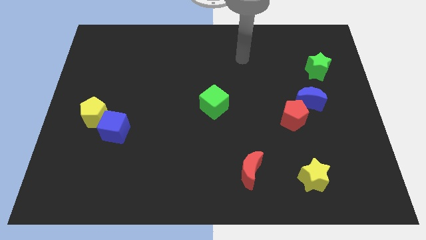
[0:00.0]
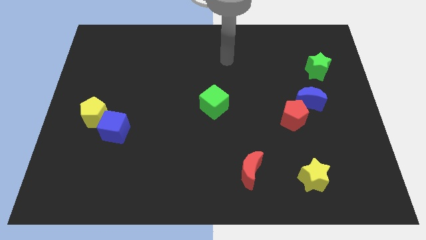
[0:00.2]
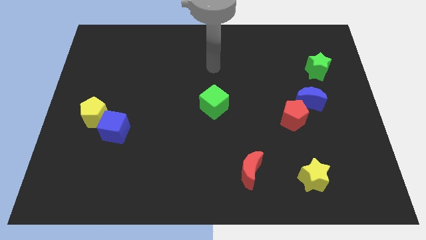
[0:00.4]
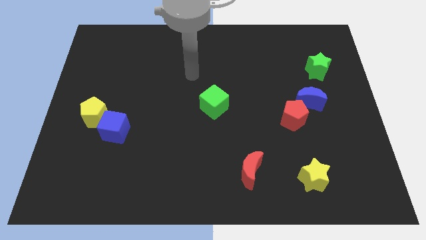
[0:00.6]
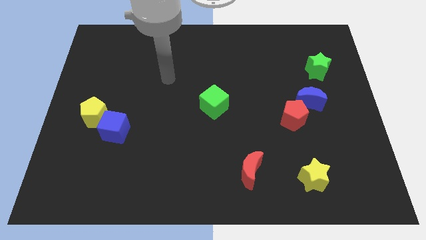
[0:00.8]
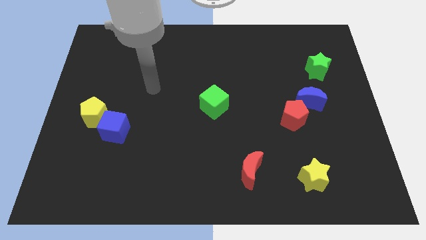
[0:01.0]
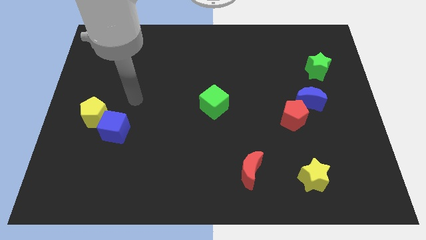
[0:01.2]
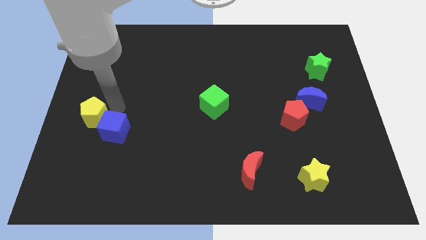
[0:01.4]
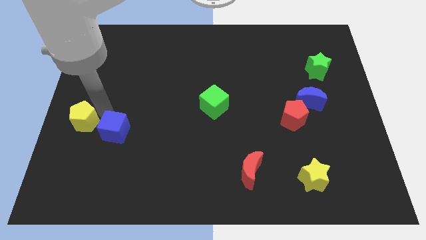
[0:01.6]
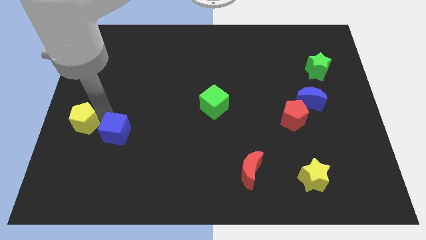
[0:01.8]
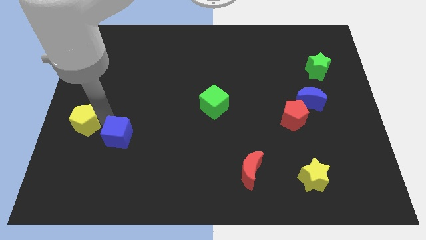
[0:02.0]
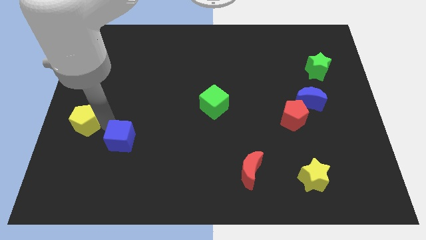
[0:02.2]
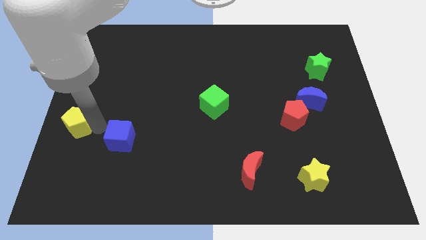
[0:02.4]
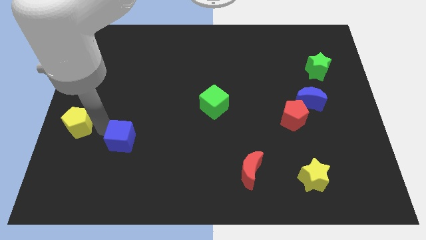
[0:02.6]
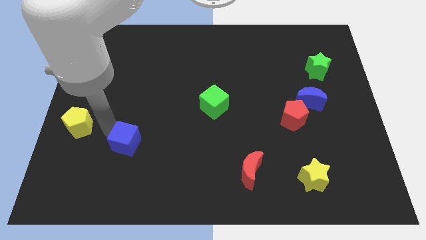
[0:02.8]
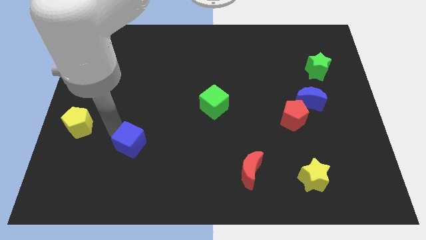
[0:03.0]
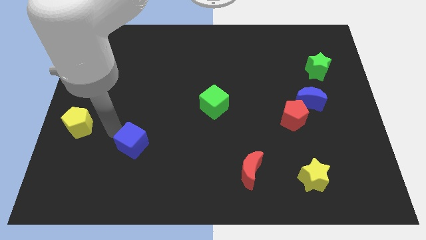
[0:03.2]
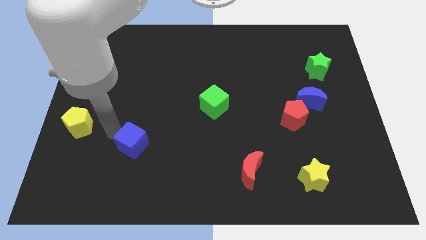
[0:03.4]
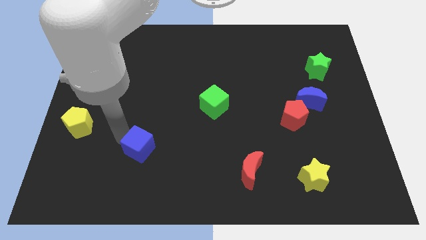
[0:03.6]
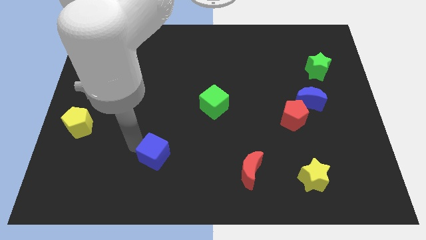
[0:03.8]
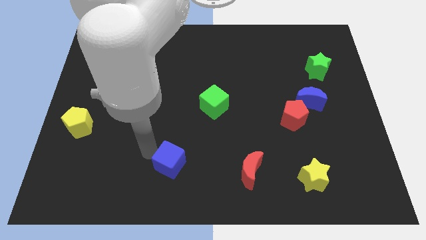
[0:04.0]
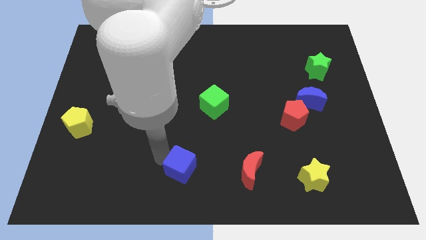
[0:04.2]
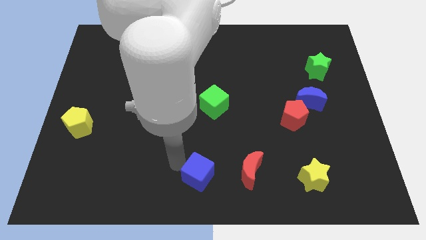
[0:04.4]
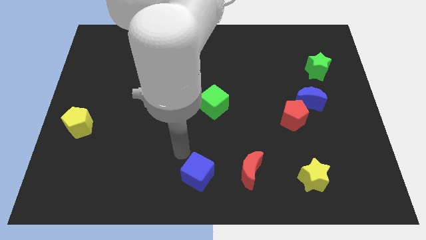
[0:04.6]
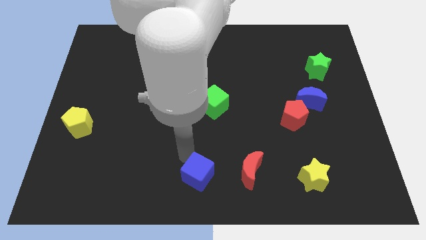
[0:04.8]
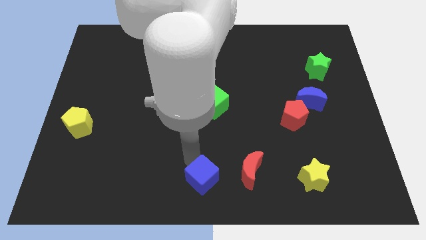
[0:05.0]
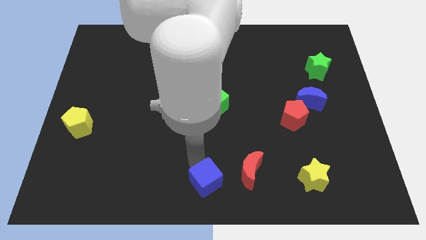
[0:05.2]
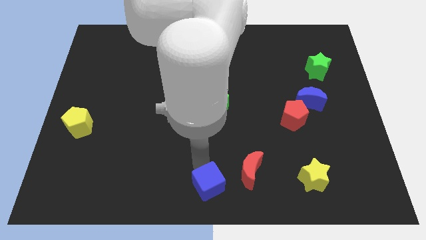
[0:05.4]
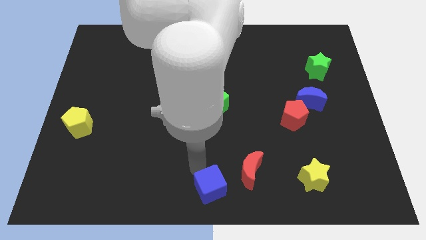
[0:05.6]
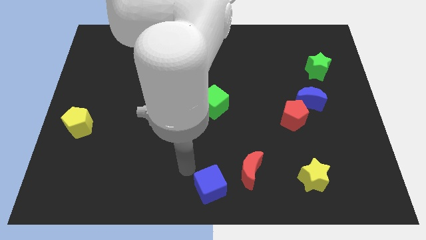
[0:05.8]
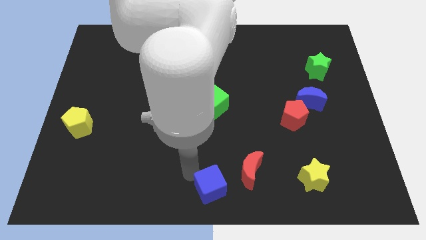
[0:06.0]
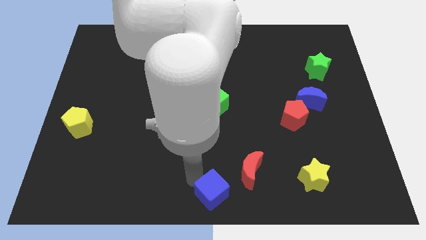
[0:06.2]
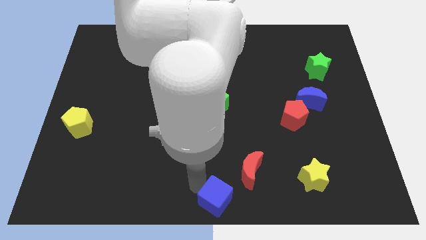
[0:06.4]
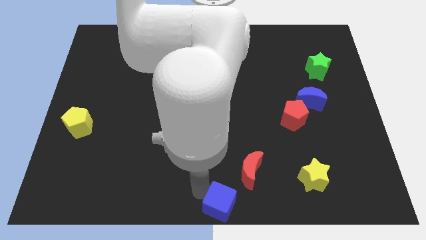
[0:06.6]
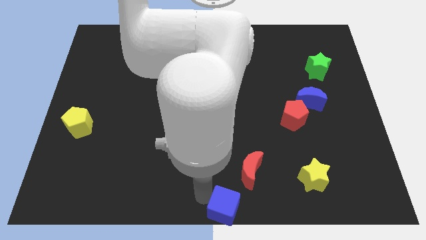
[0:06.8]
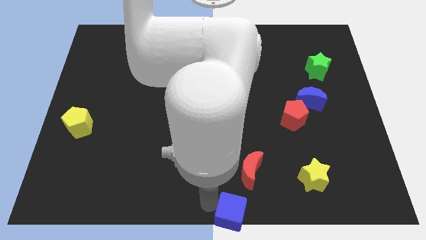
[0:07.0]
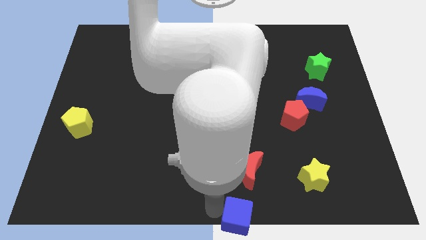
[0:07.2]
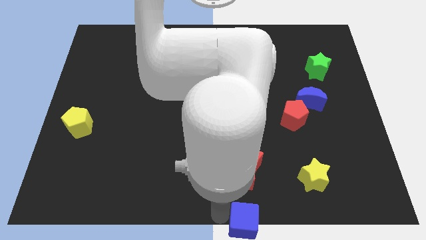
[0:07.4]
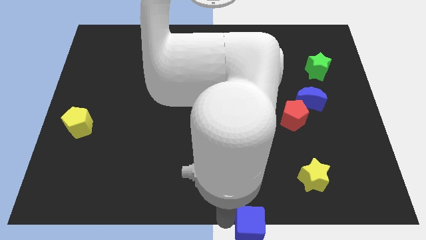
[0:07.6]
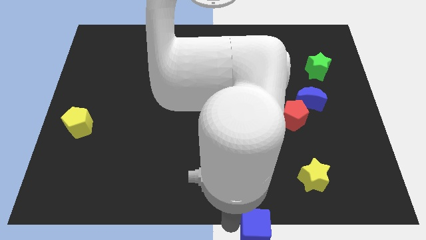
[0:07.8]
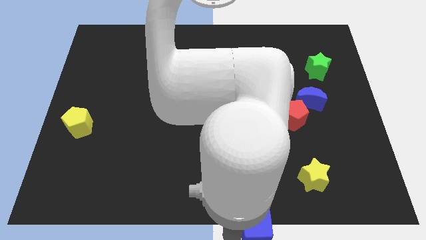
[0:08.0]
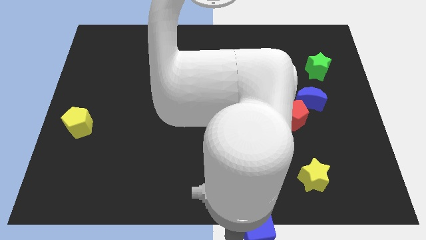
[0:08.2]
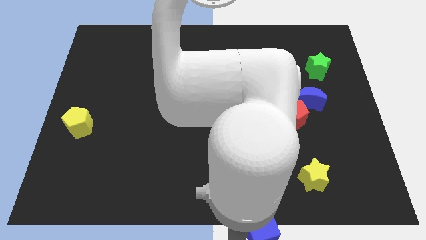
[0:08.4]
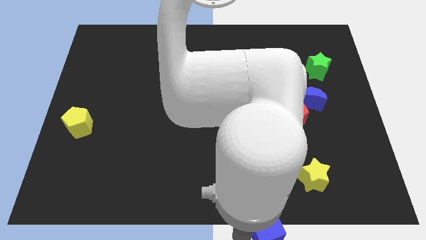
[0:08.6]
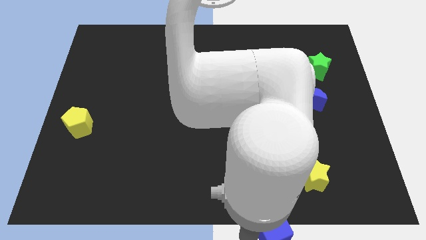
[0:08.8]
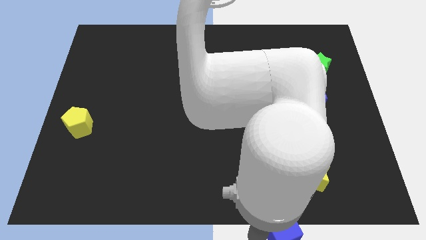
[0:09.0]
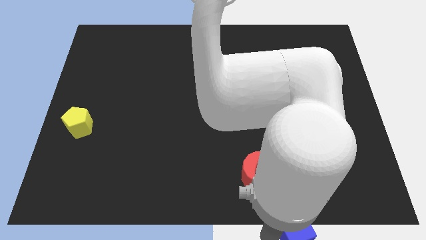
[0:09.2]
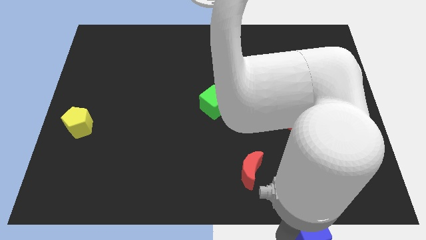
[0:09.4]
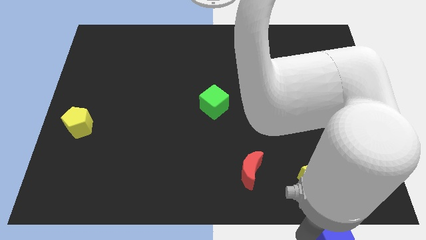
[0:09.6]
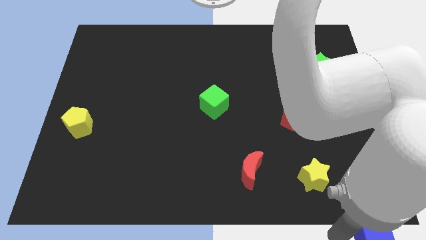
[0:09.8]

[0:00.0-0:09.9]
move the blue cube to the lower right corner

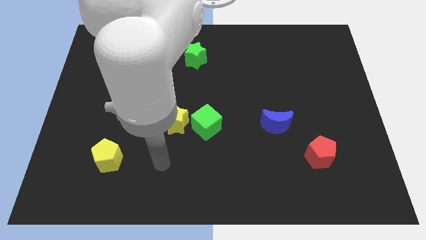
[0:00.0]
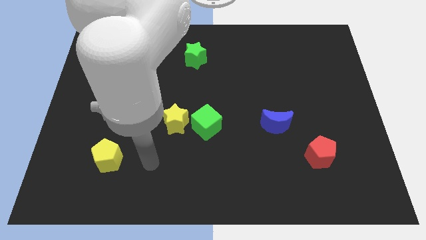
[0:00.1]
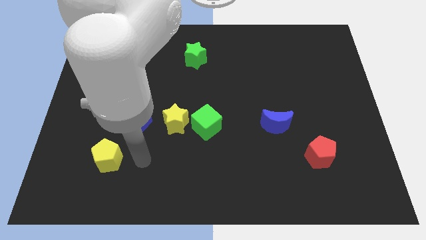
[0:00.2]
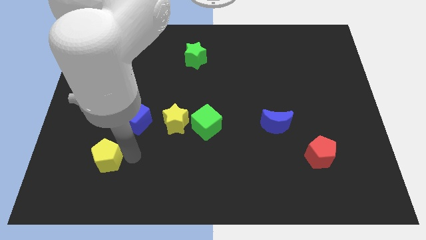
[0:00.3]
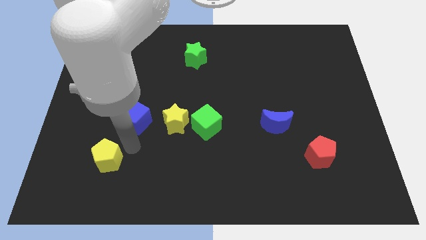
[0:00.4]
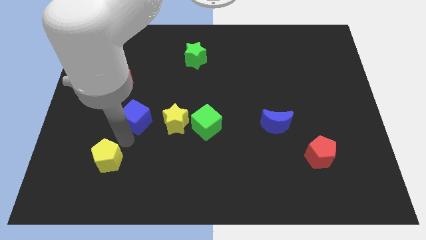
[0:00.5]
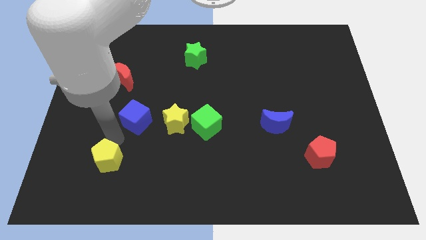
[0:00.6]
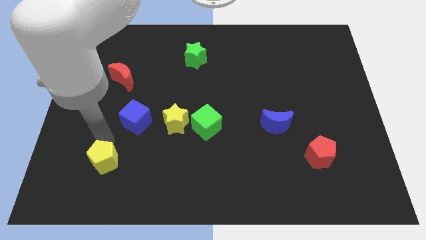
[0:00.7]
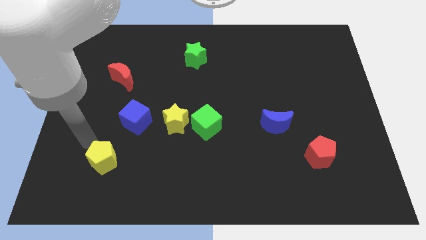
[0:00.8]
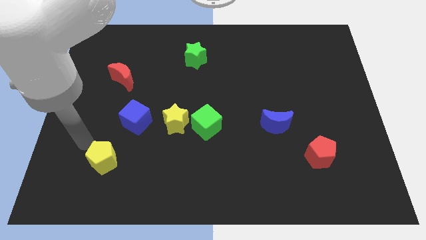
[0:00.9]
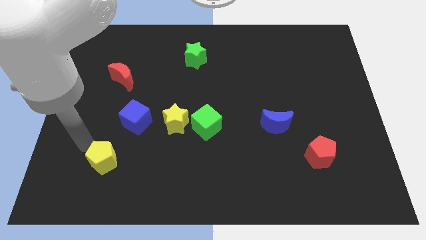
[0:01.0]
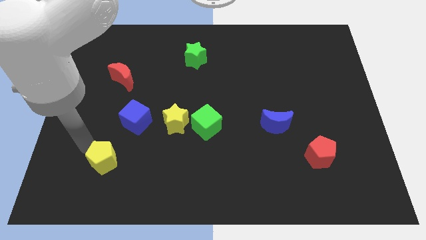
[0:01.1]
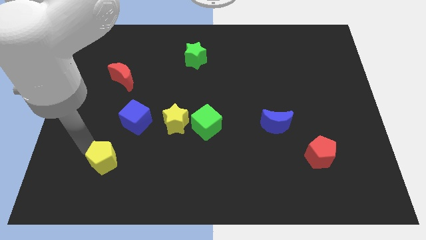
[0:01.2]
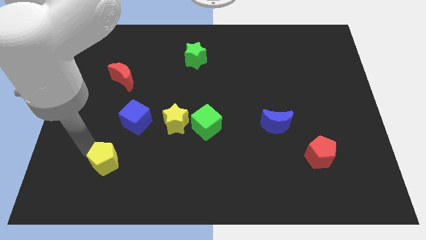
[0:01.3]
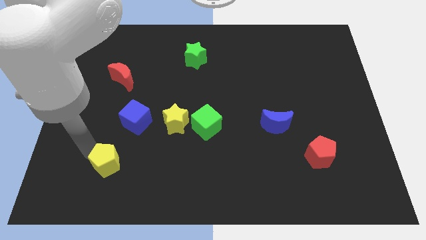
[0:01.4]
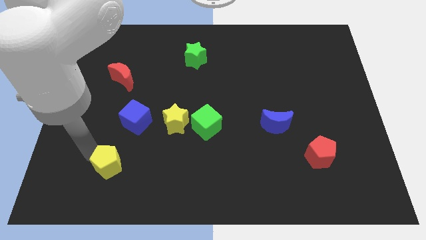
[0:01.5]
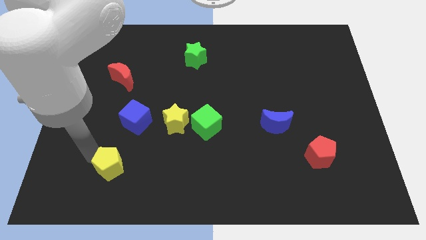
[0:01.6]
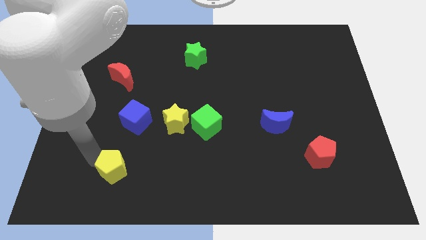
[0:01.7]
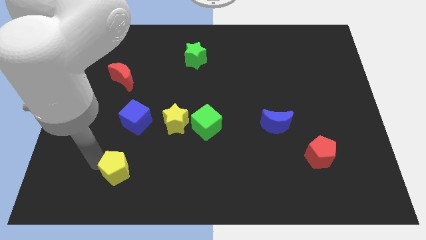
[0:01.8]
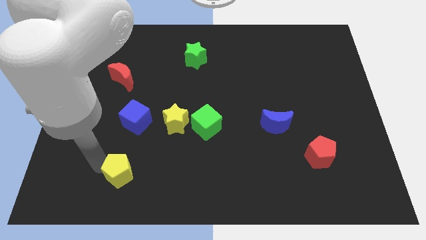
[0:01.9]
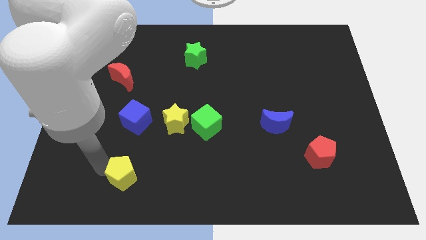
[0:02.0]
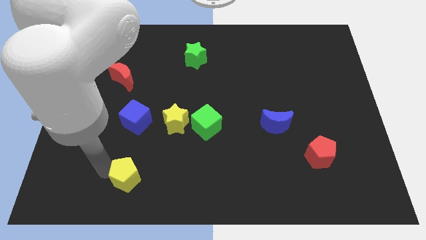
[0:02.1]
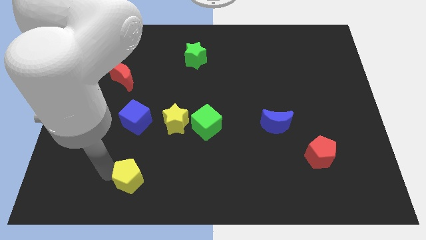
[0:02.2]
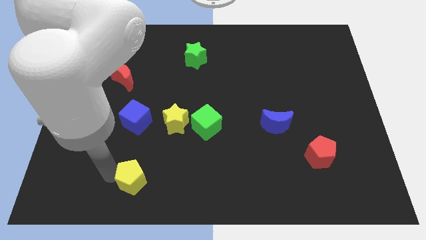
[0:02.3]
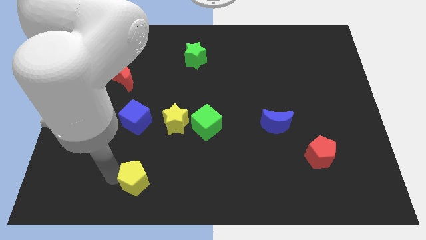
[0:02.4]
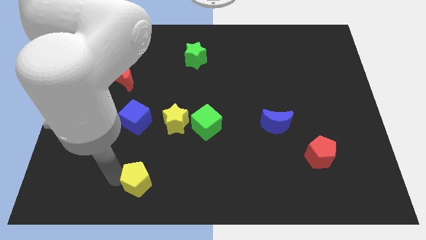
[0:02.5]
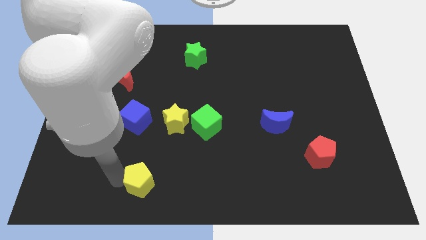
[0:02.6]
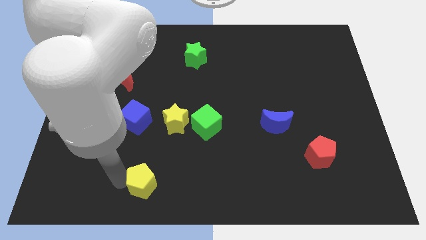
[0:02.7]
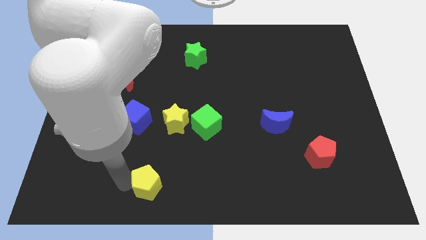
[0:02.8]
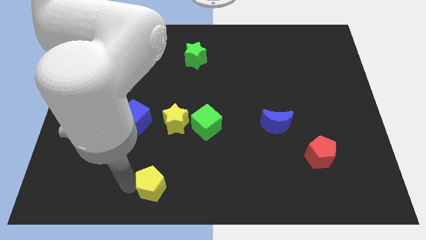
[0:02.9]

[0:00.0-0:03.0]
push the yellow pentagon to the bottom side
